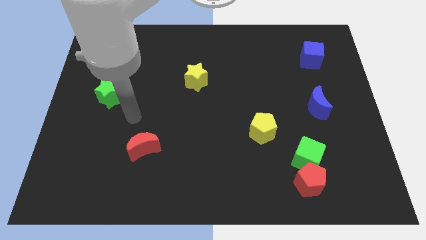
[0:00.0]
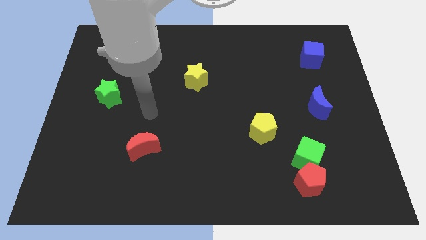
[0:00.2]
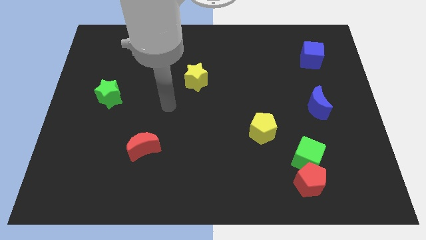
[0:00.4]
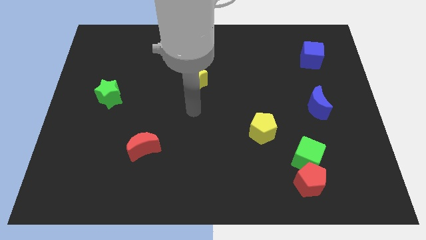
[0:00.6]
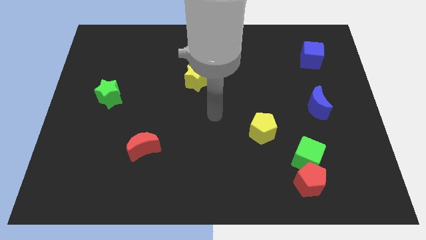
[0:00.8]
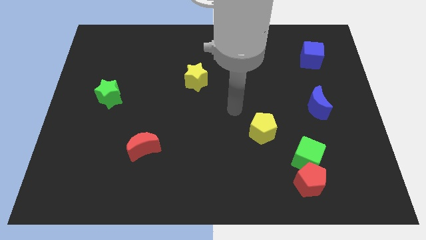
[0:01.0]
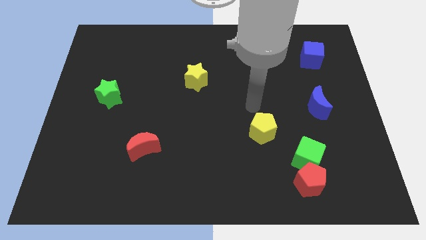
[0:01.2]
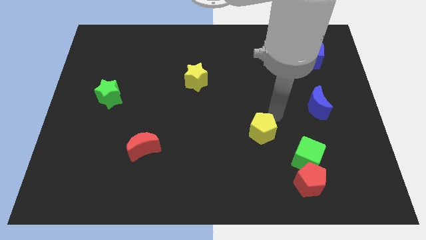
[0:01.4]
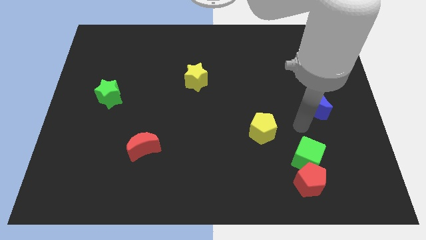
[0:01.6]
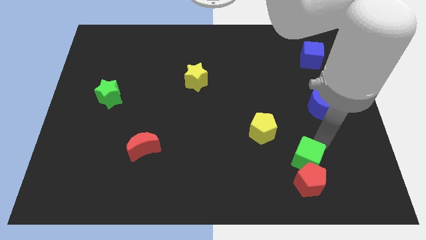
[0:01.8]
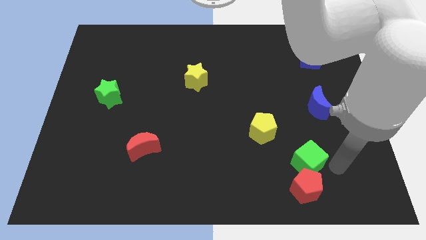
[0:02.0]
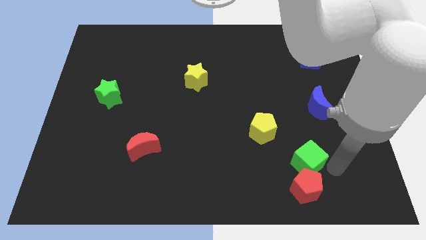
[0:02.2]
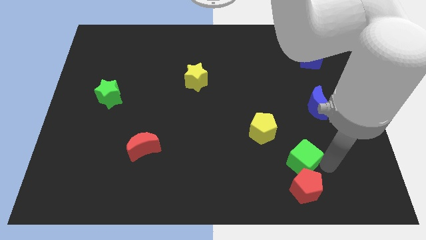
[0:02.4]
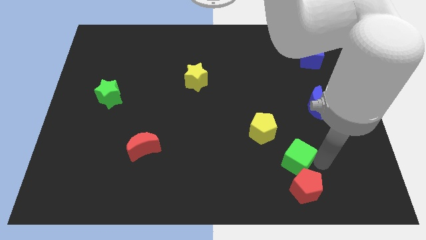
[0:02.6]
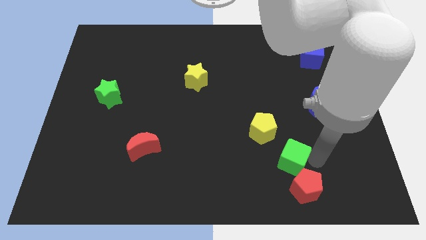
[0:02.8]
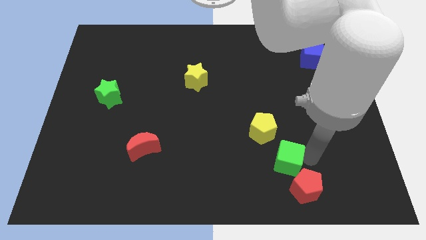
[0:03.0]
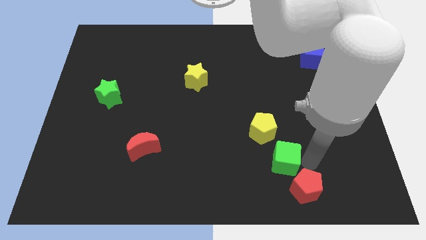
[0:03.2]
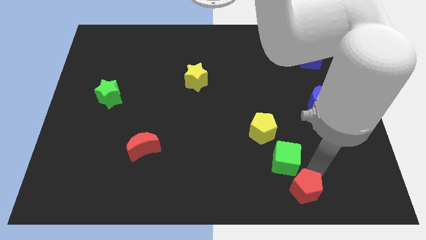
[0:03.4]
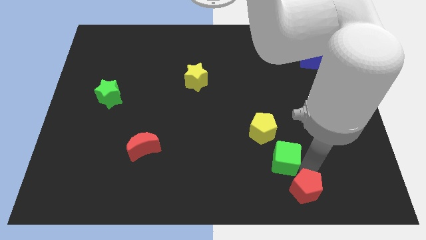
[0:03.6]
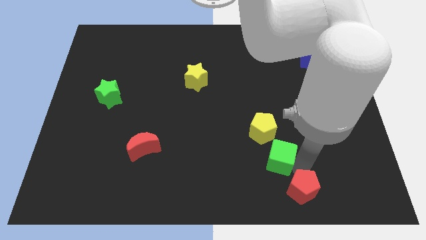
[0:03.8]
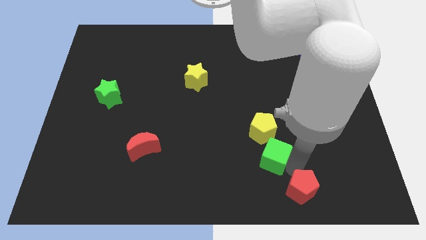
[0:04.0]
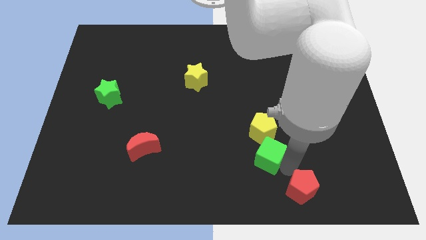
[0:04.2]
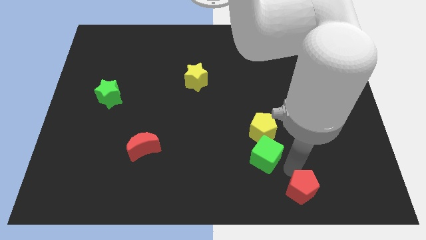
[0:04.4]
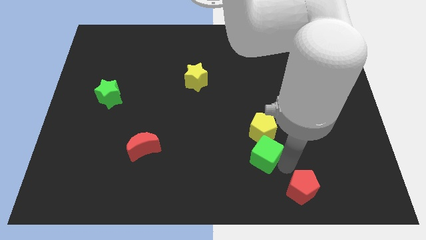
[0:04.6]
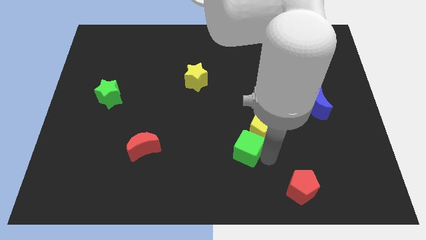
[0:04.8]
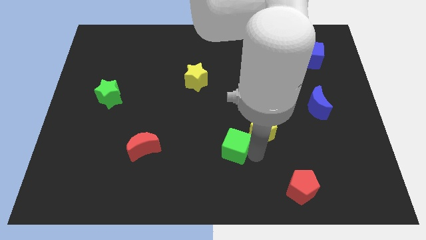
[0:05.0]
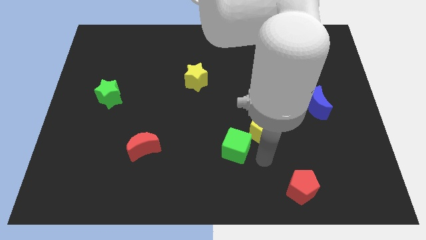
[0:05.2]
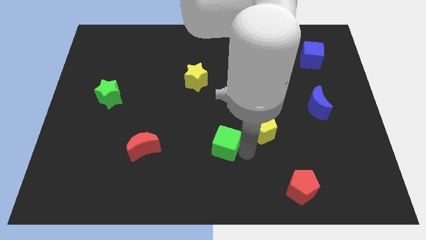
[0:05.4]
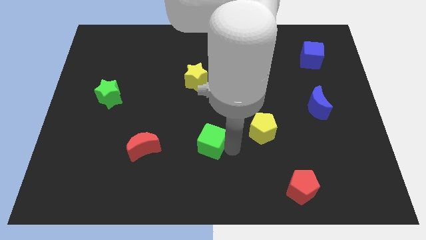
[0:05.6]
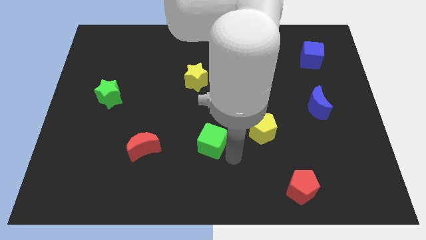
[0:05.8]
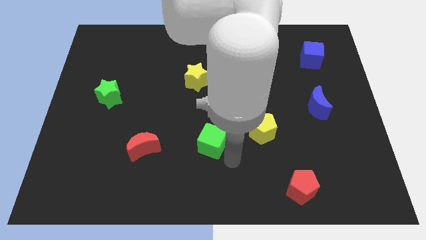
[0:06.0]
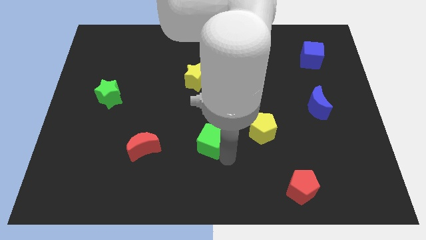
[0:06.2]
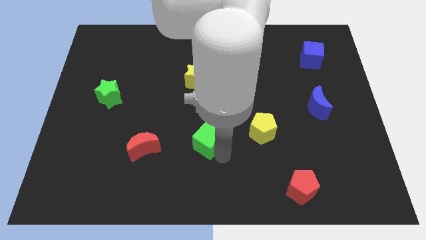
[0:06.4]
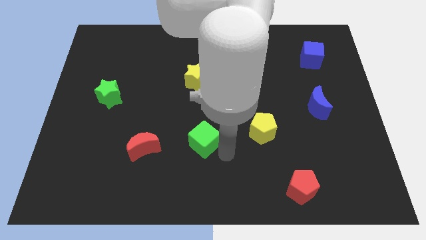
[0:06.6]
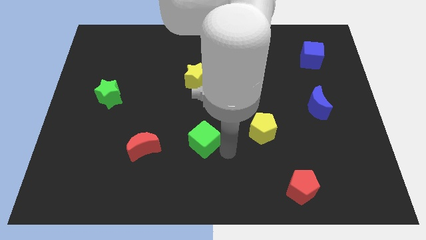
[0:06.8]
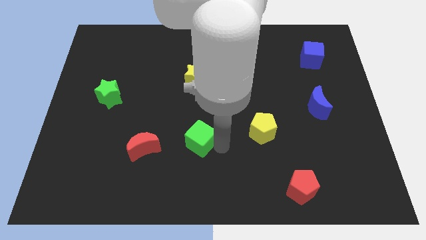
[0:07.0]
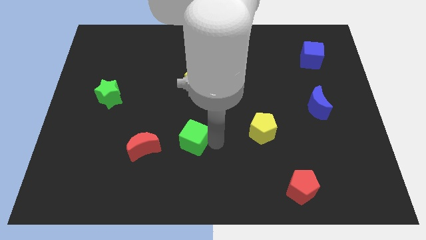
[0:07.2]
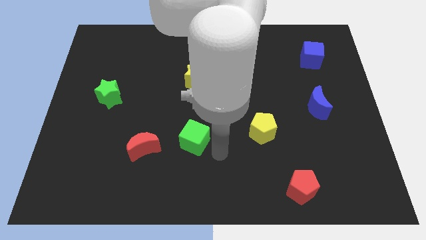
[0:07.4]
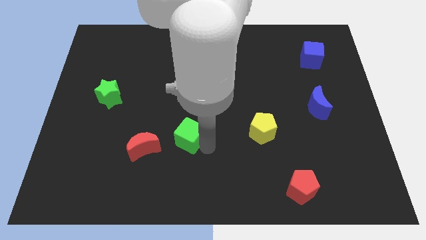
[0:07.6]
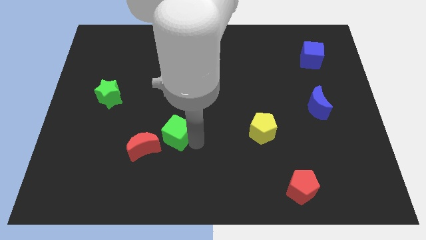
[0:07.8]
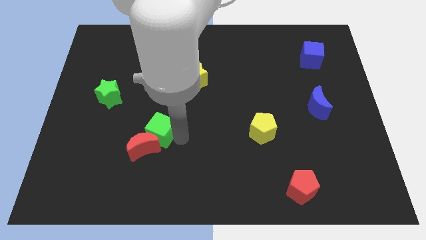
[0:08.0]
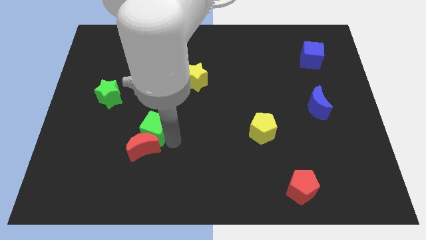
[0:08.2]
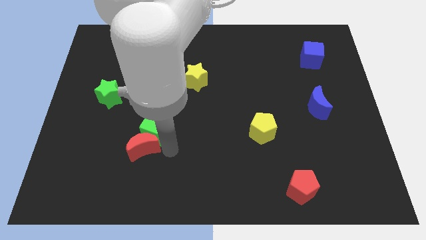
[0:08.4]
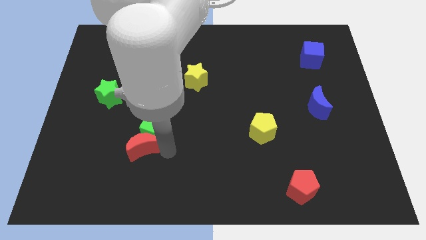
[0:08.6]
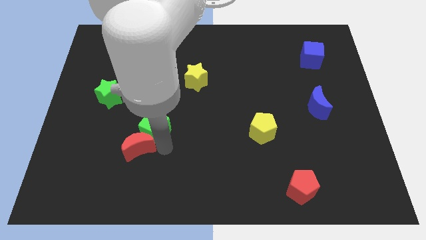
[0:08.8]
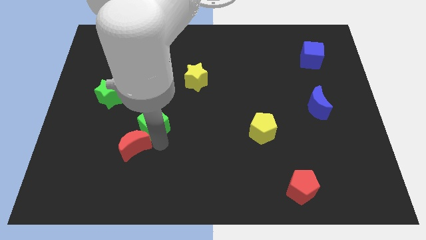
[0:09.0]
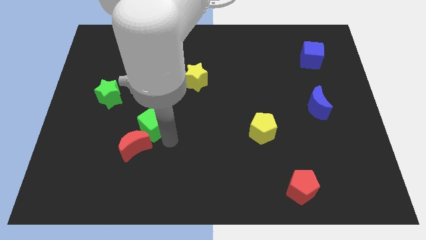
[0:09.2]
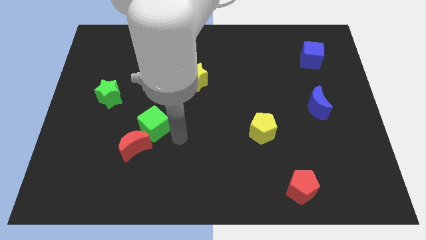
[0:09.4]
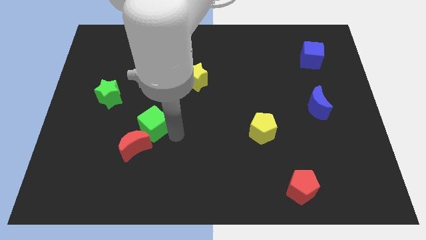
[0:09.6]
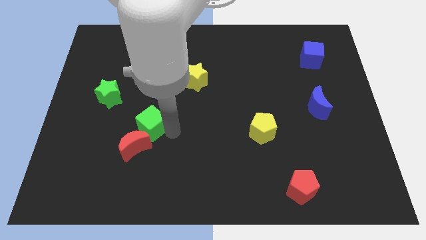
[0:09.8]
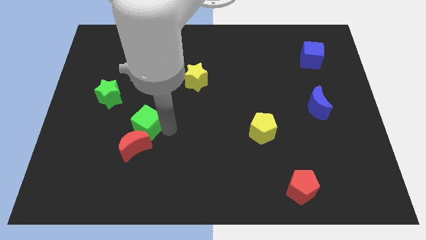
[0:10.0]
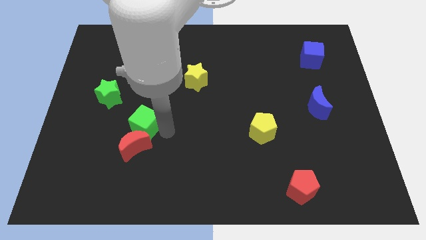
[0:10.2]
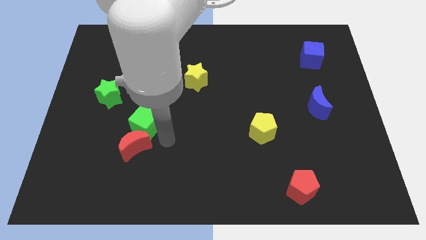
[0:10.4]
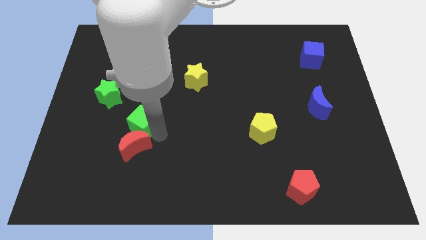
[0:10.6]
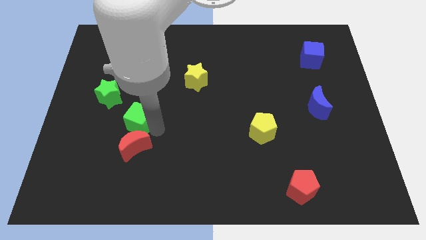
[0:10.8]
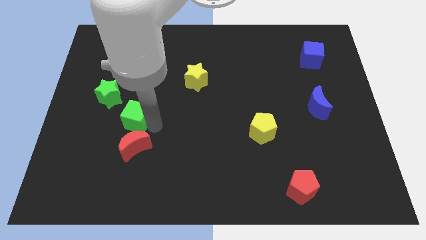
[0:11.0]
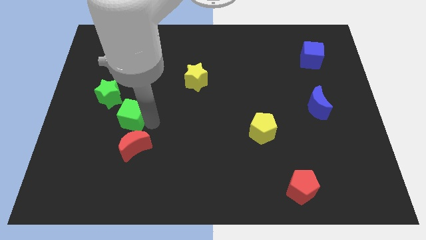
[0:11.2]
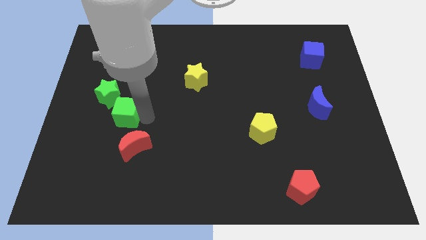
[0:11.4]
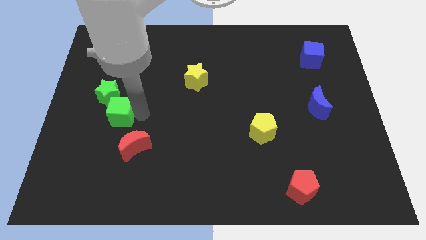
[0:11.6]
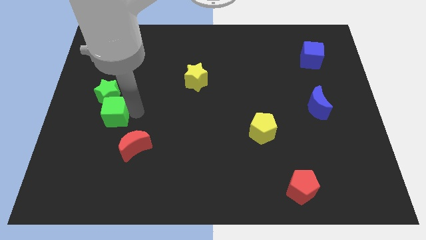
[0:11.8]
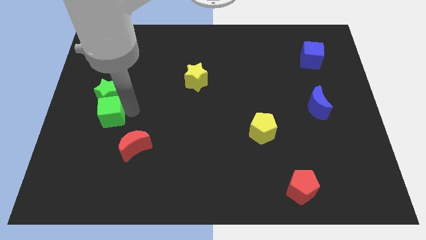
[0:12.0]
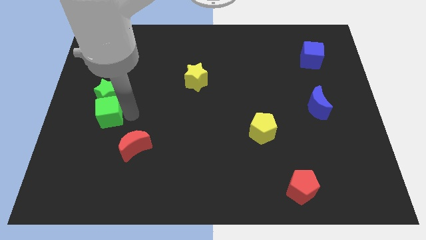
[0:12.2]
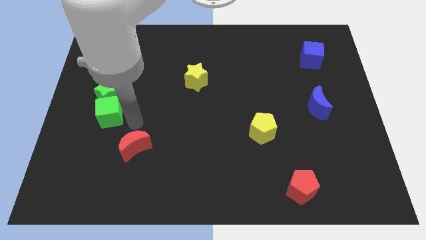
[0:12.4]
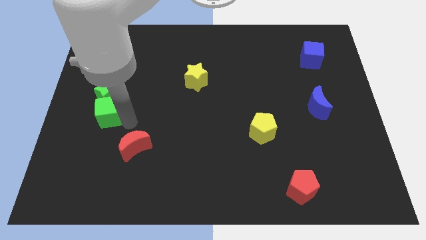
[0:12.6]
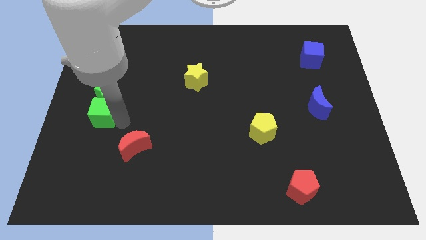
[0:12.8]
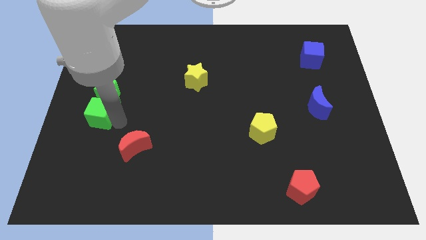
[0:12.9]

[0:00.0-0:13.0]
put the green cube to the center left
